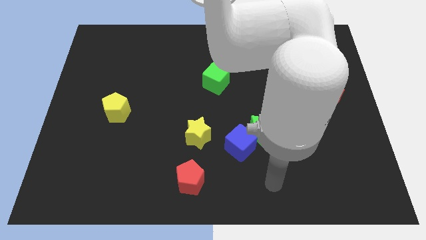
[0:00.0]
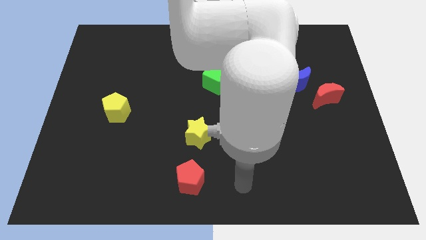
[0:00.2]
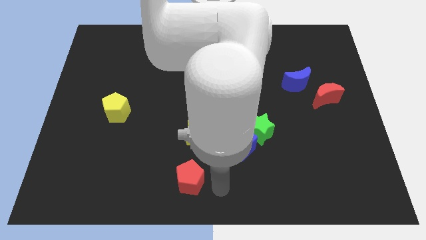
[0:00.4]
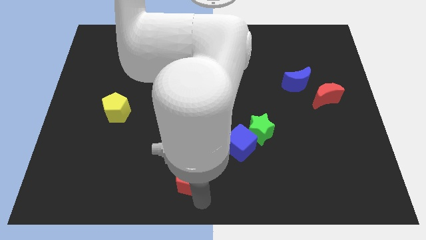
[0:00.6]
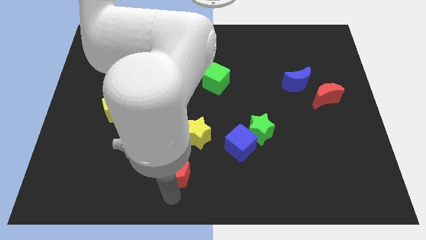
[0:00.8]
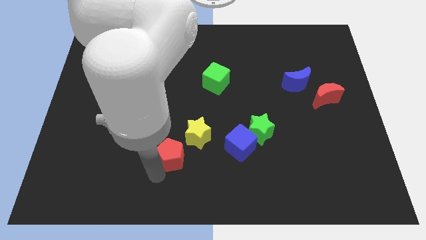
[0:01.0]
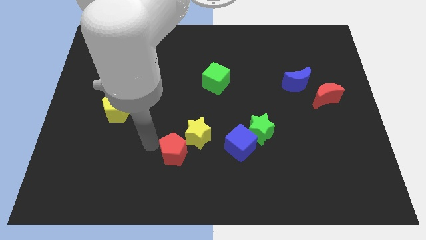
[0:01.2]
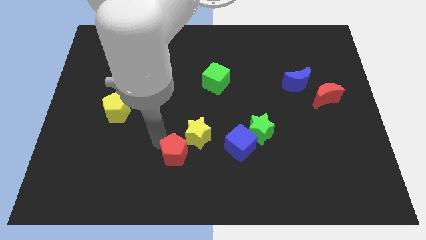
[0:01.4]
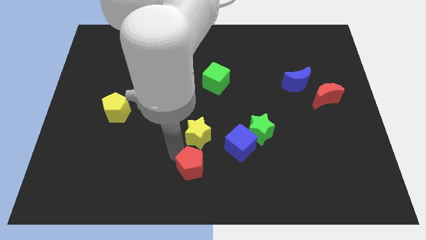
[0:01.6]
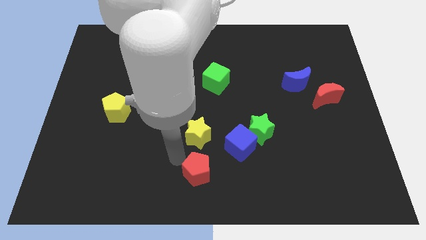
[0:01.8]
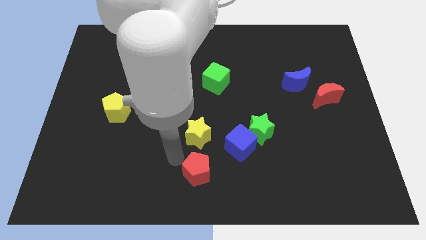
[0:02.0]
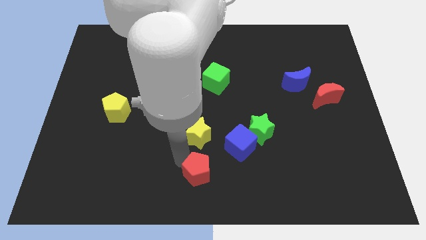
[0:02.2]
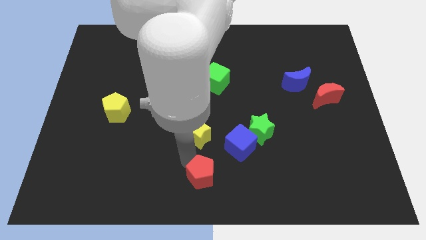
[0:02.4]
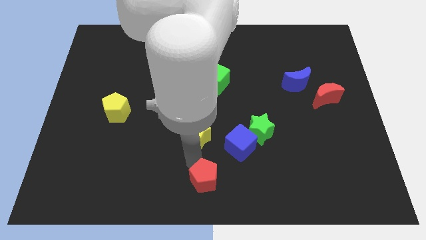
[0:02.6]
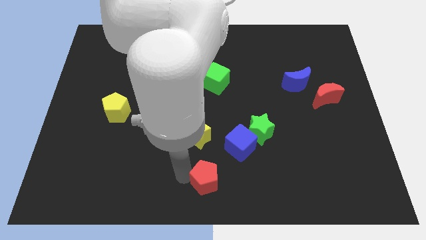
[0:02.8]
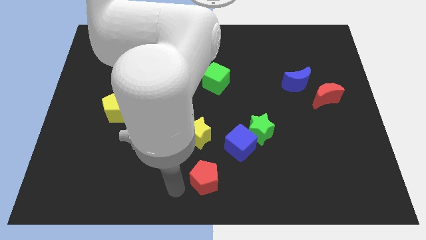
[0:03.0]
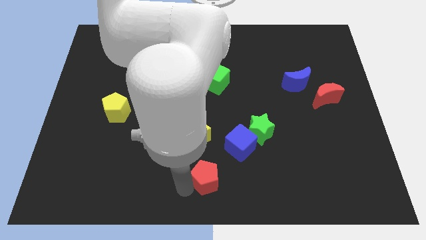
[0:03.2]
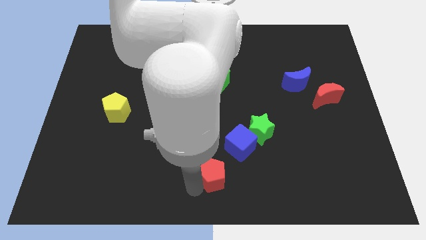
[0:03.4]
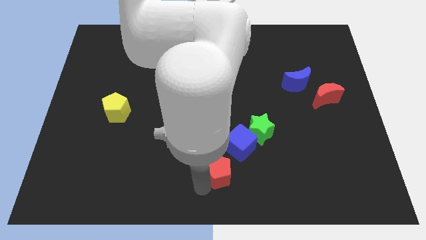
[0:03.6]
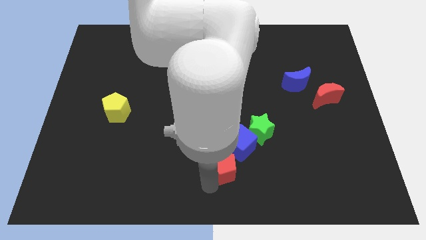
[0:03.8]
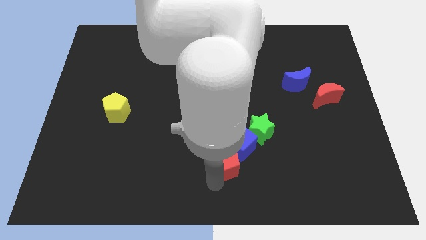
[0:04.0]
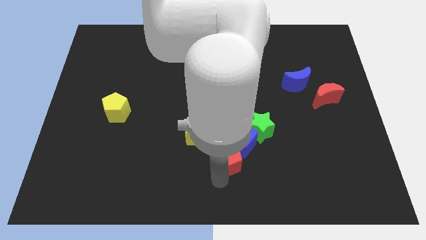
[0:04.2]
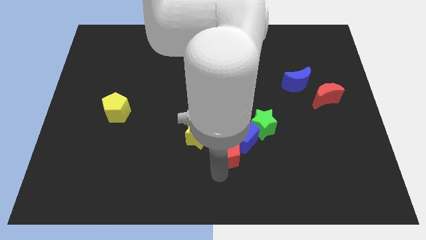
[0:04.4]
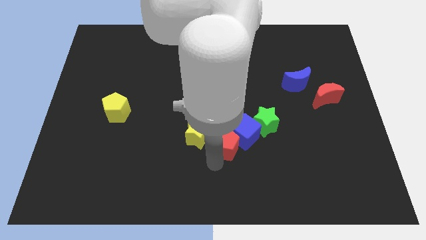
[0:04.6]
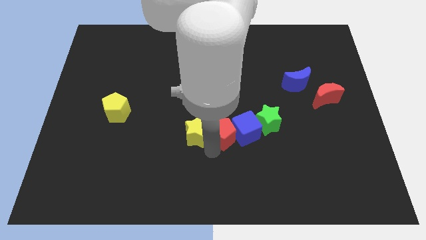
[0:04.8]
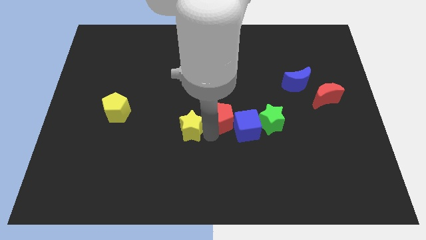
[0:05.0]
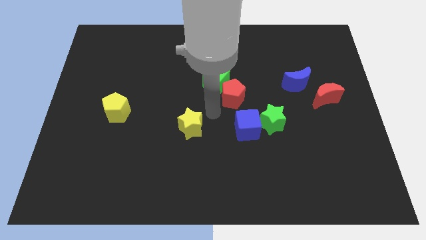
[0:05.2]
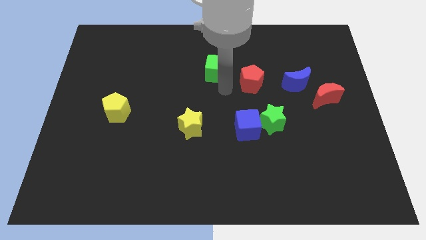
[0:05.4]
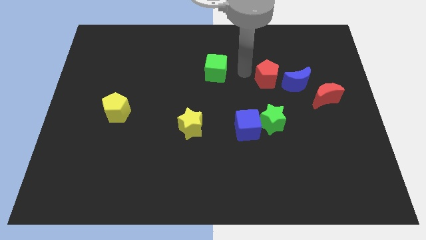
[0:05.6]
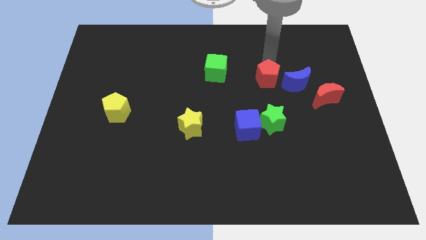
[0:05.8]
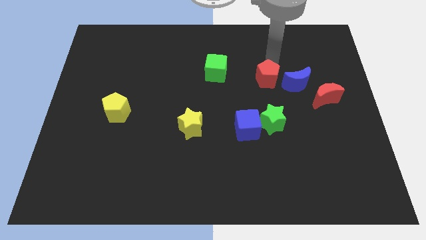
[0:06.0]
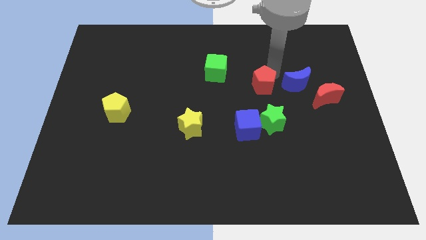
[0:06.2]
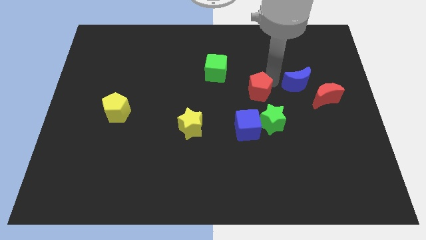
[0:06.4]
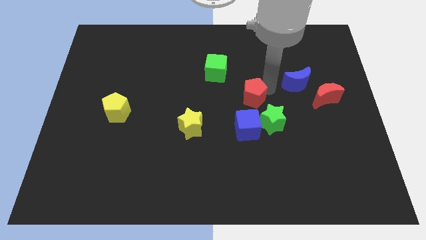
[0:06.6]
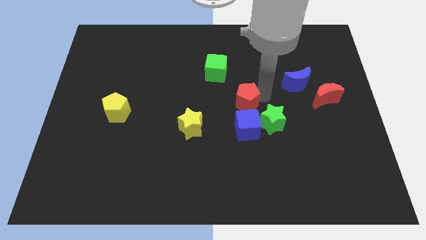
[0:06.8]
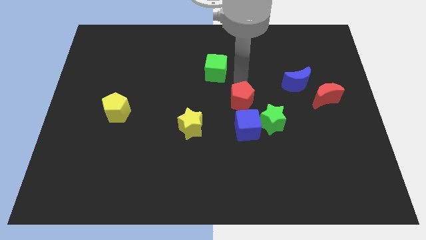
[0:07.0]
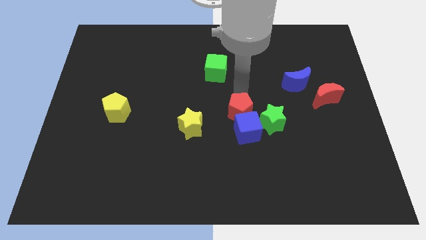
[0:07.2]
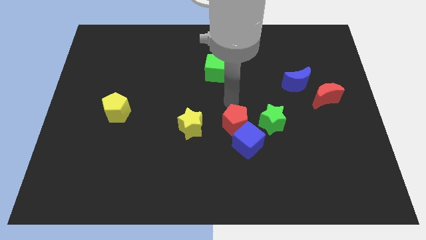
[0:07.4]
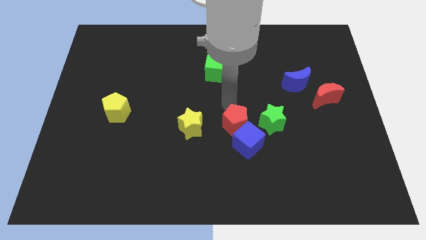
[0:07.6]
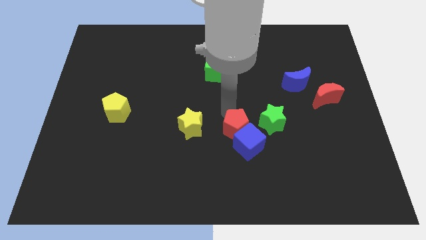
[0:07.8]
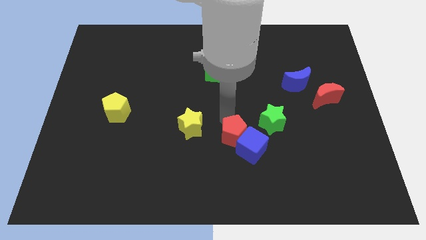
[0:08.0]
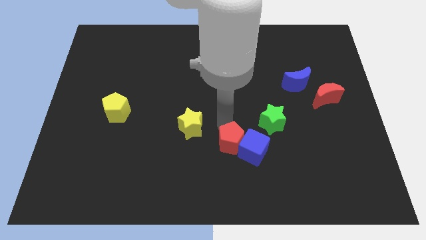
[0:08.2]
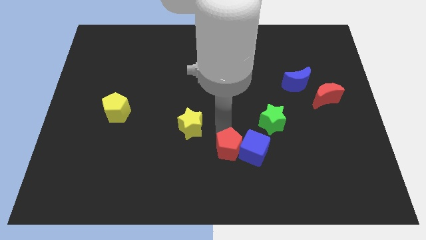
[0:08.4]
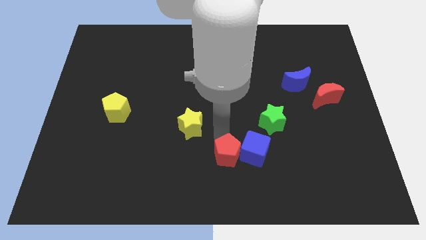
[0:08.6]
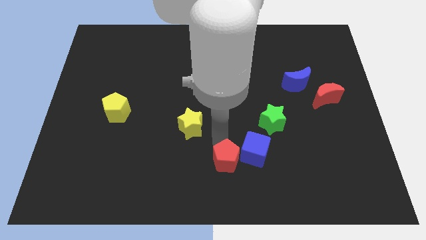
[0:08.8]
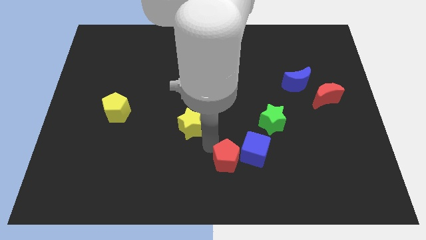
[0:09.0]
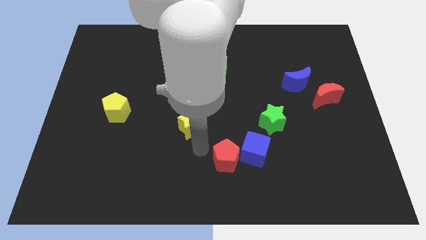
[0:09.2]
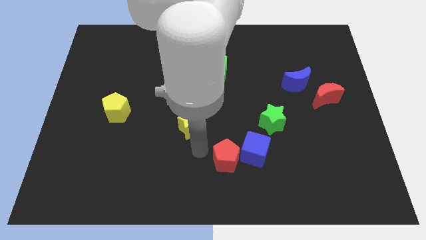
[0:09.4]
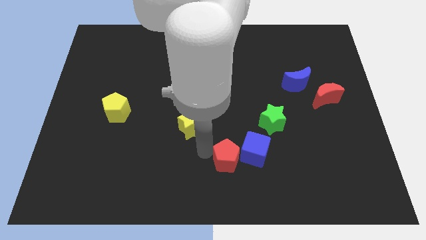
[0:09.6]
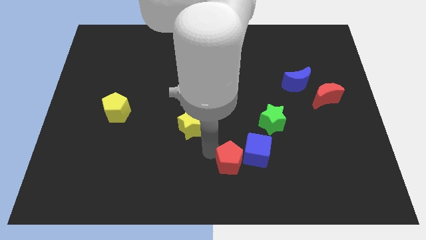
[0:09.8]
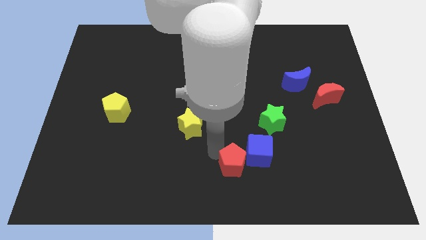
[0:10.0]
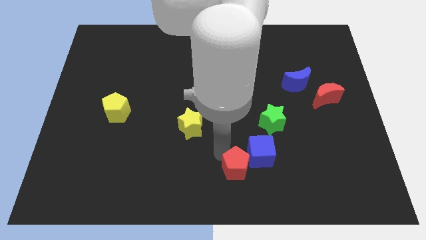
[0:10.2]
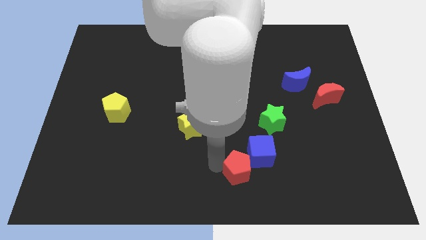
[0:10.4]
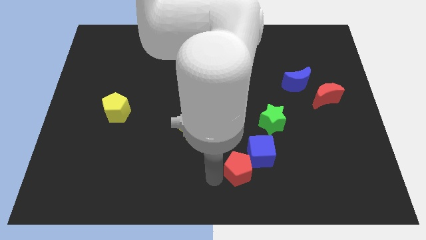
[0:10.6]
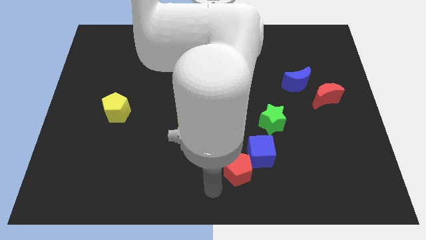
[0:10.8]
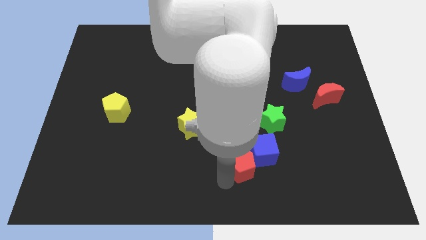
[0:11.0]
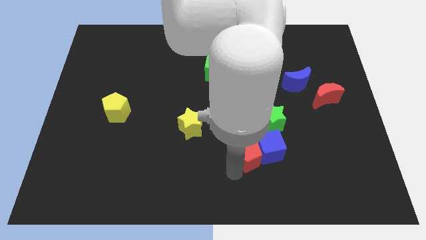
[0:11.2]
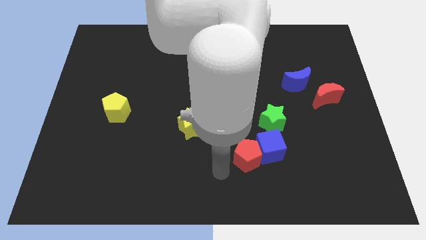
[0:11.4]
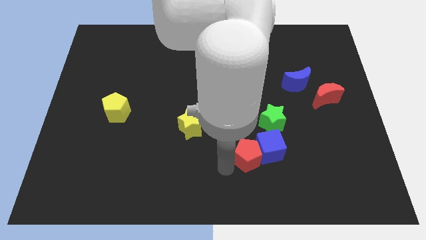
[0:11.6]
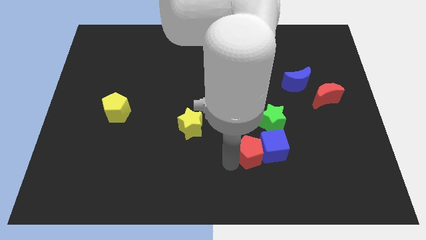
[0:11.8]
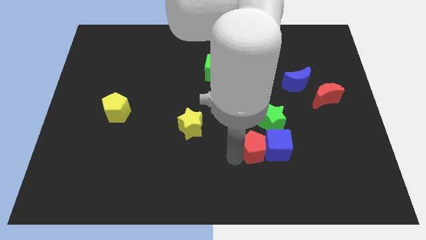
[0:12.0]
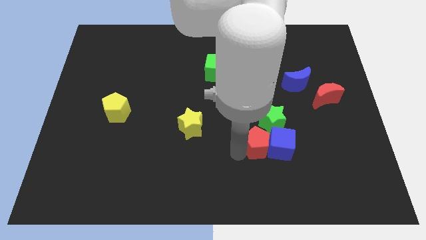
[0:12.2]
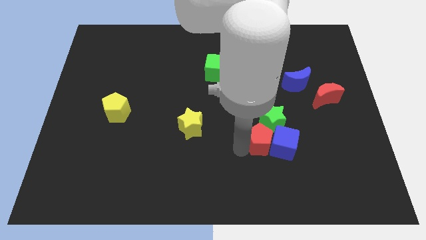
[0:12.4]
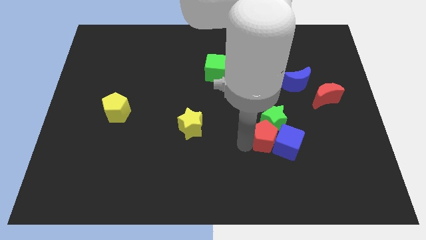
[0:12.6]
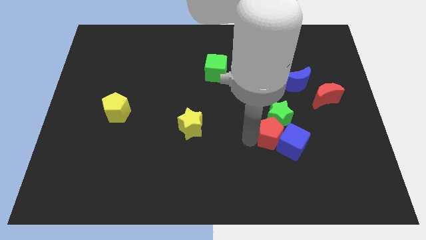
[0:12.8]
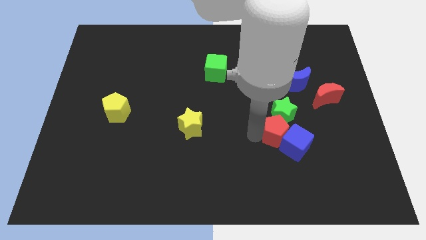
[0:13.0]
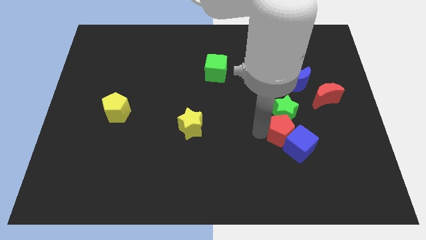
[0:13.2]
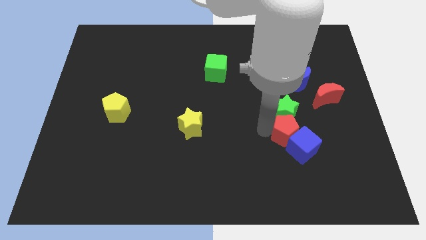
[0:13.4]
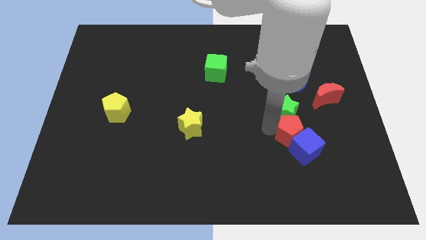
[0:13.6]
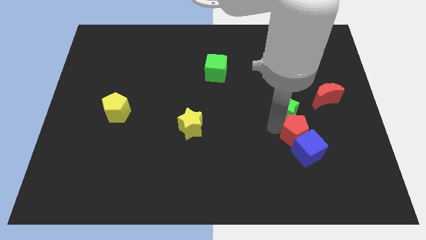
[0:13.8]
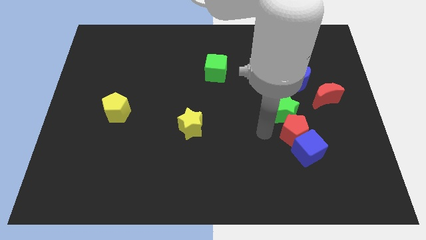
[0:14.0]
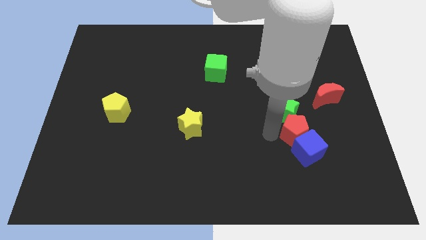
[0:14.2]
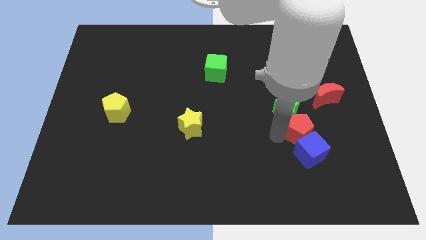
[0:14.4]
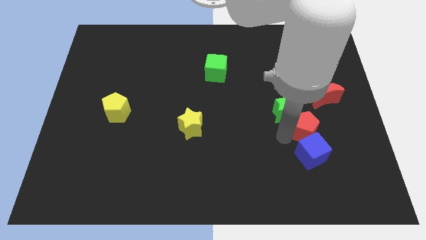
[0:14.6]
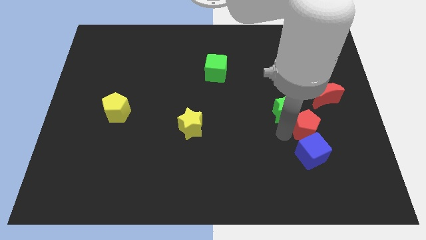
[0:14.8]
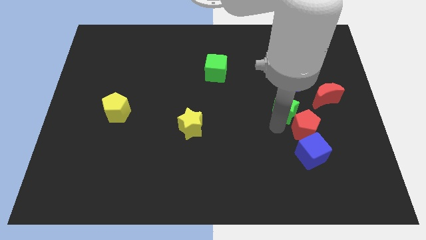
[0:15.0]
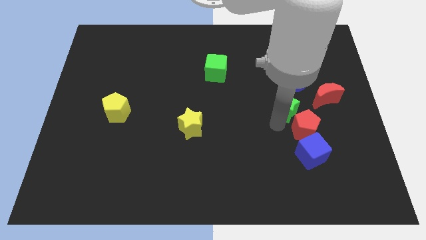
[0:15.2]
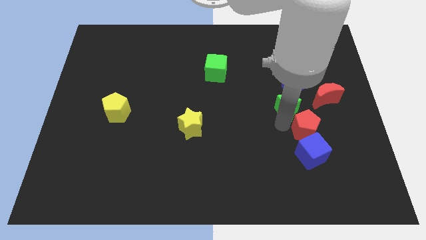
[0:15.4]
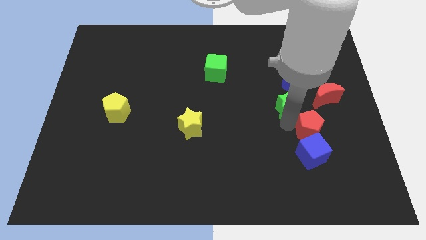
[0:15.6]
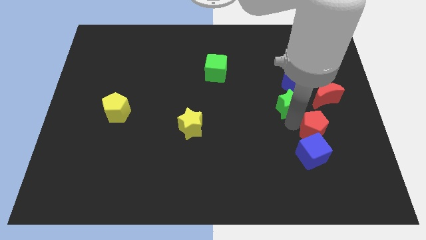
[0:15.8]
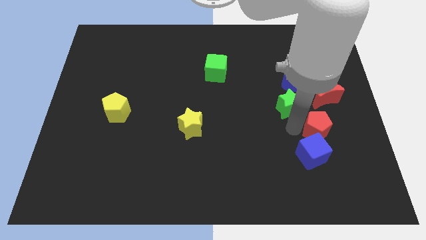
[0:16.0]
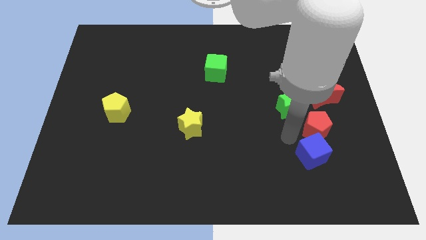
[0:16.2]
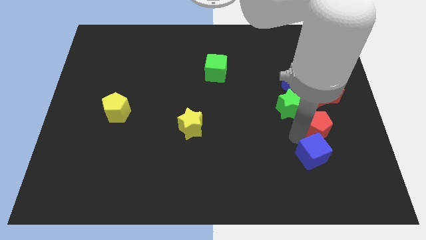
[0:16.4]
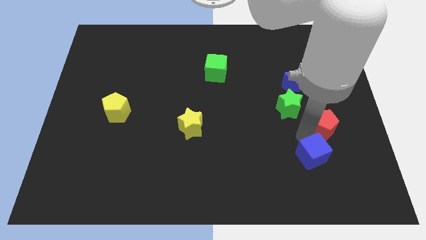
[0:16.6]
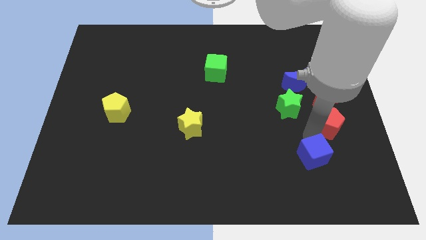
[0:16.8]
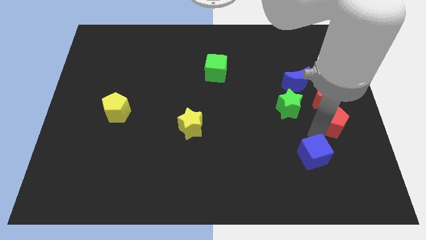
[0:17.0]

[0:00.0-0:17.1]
put the red pentagon to the center right
